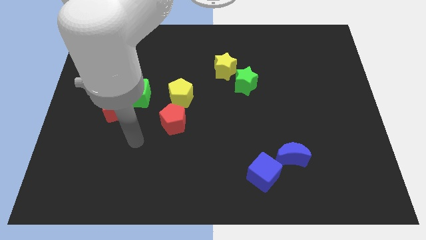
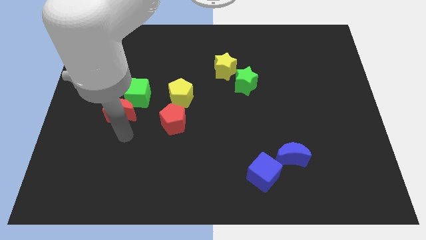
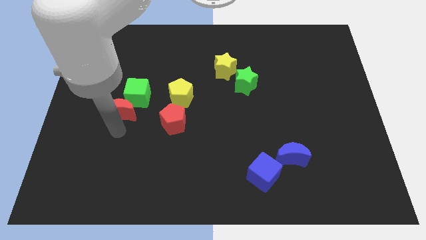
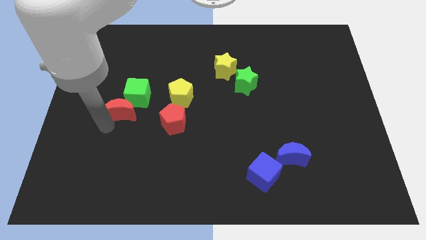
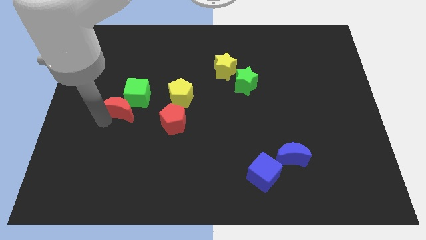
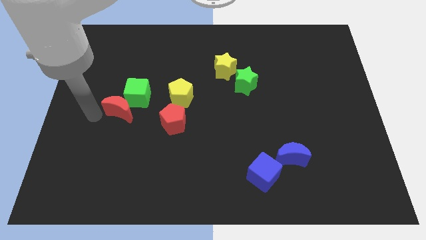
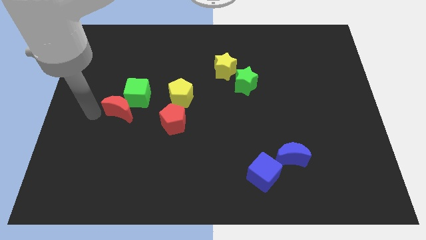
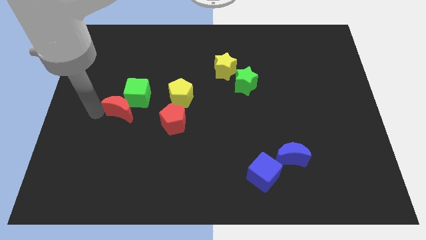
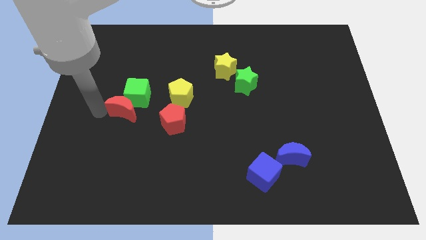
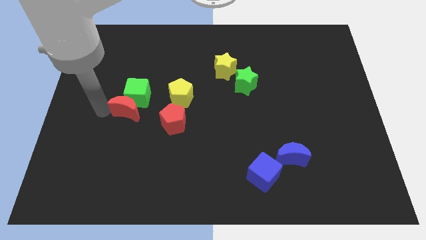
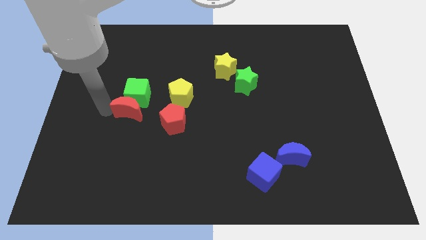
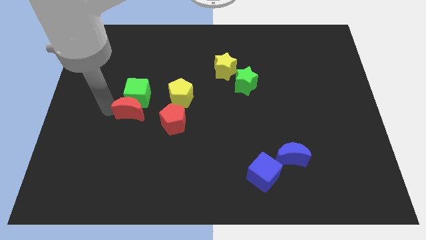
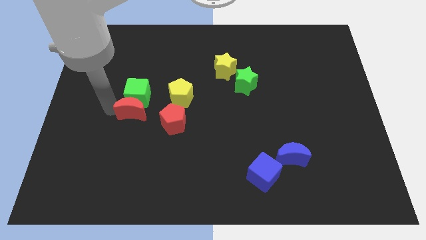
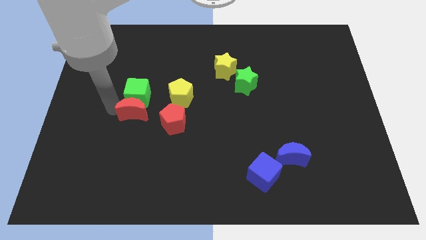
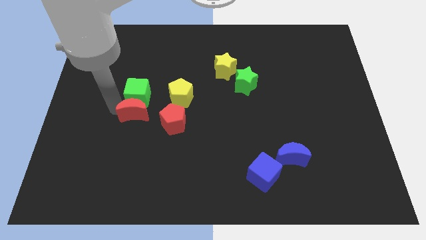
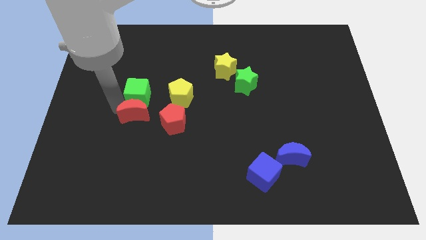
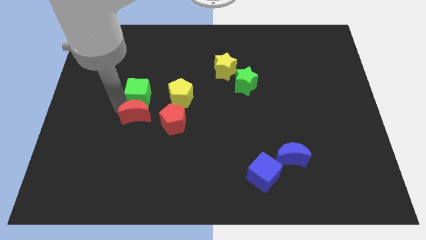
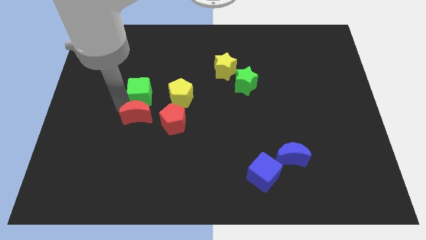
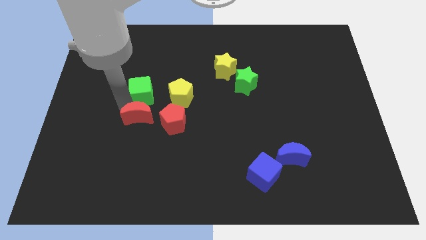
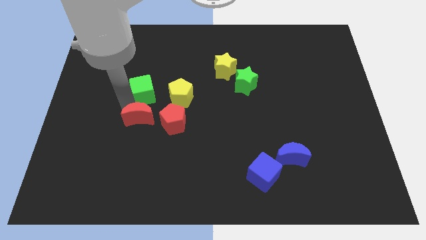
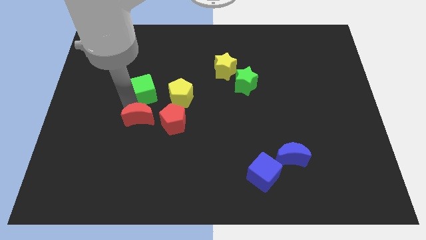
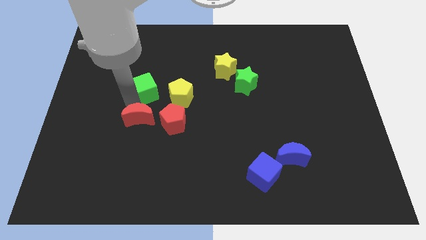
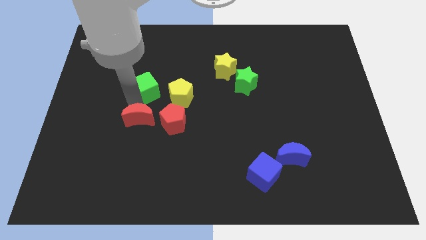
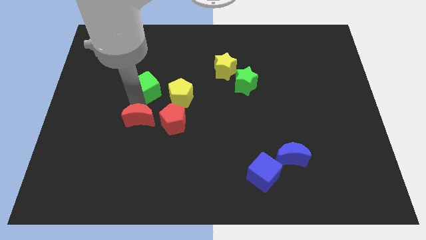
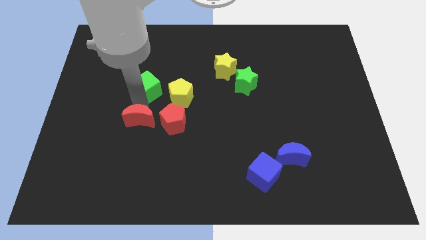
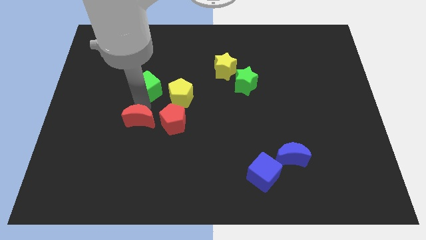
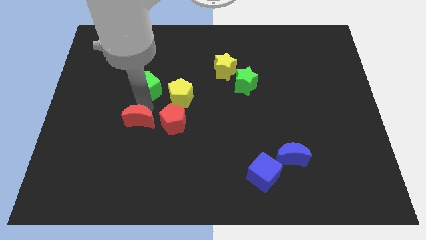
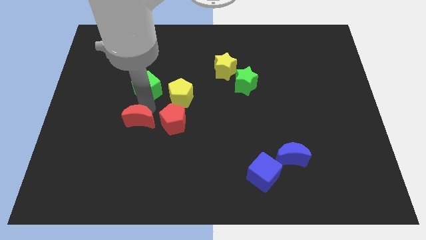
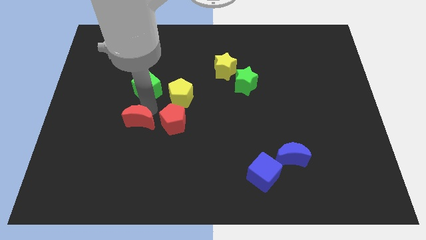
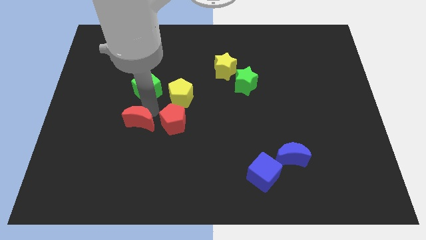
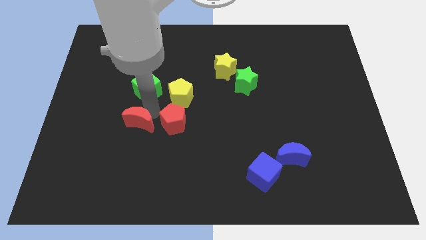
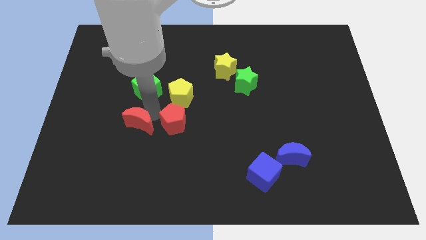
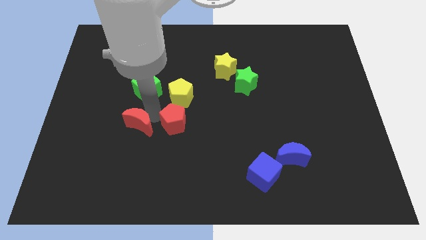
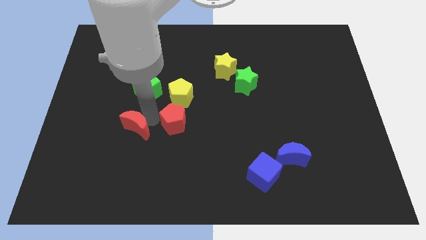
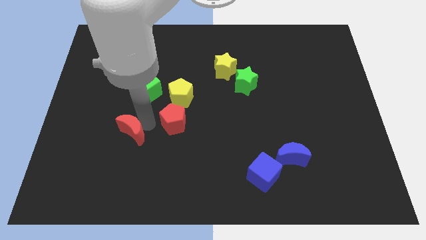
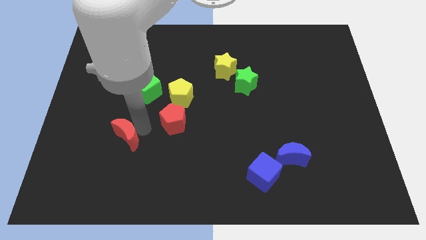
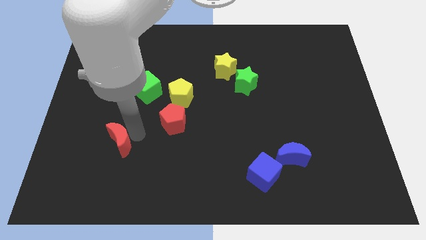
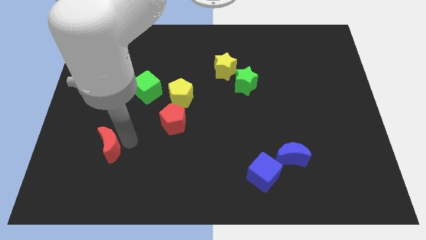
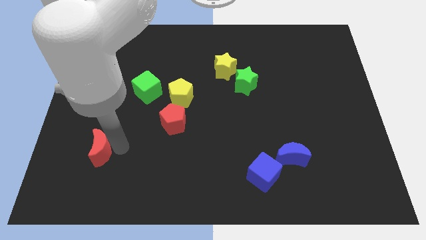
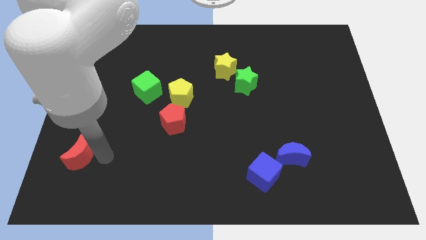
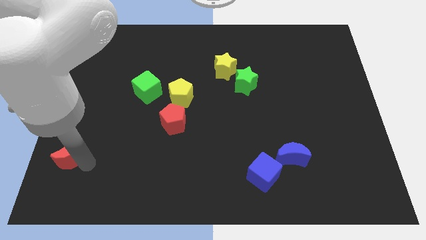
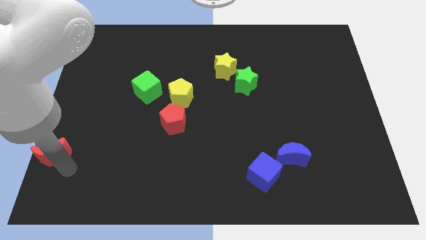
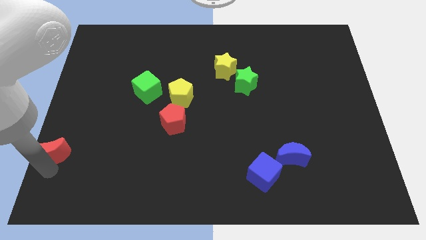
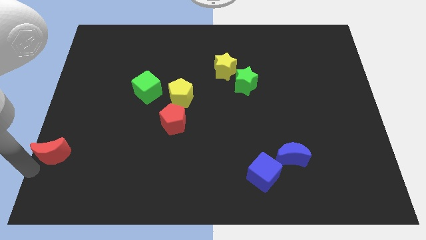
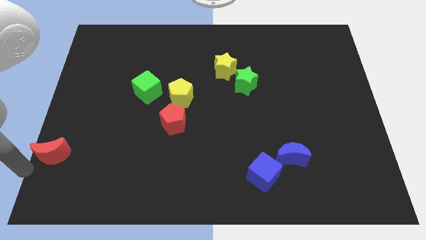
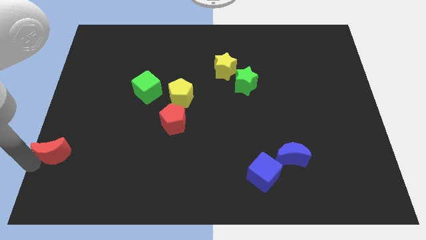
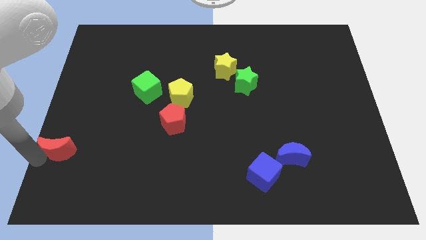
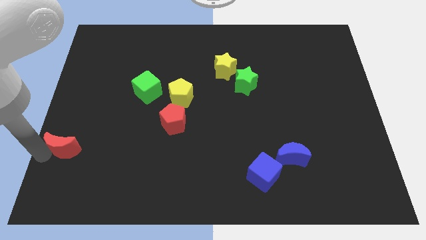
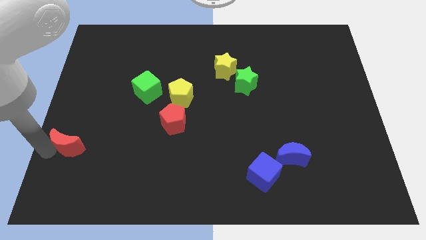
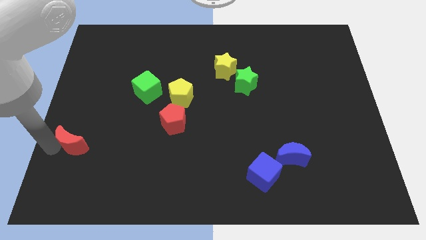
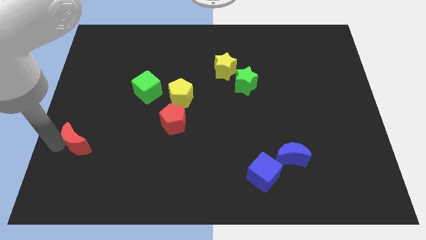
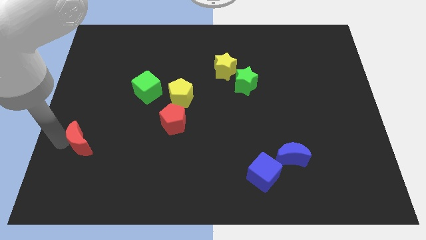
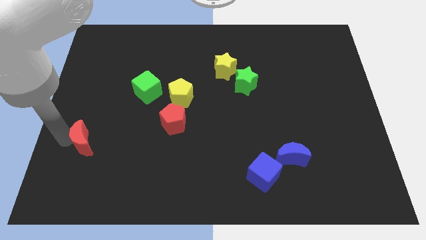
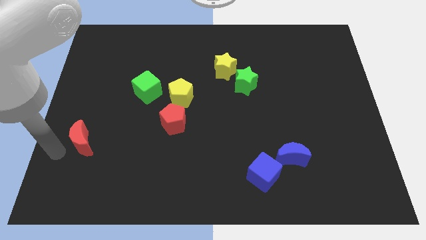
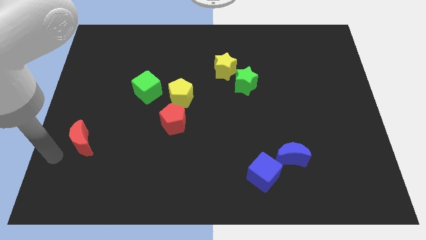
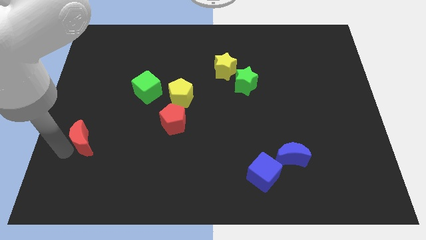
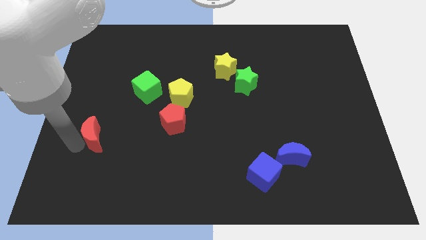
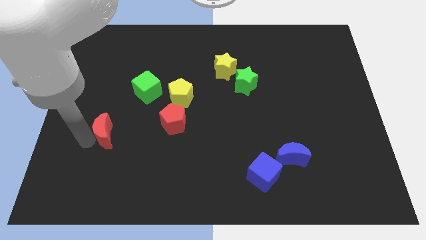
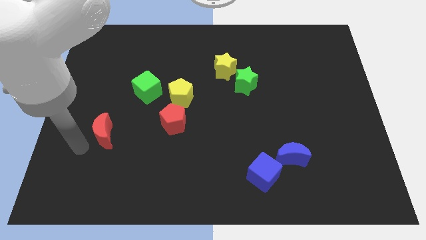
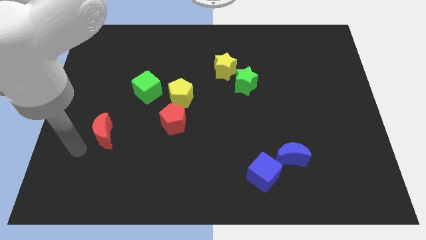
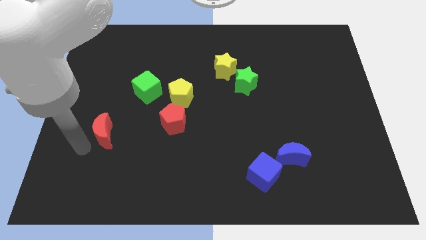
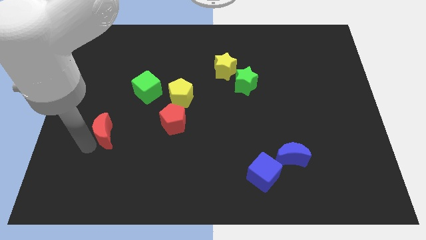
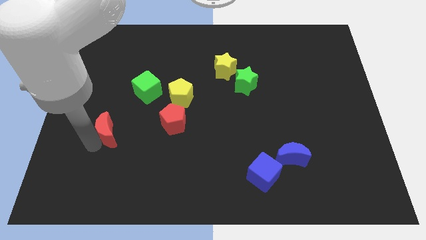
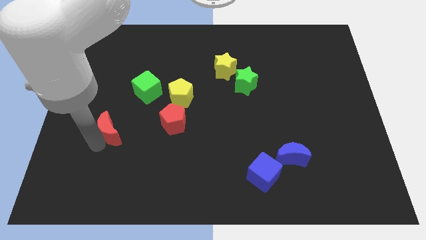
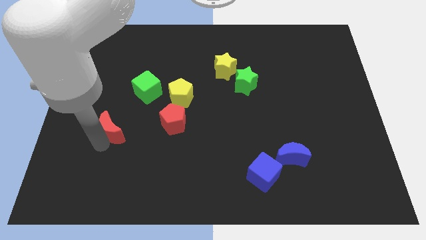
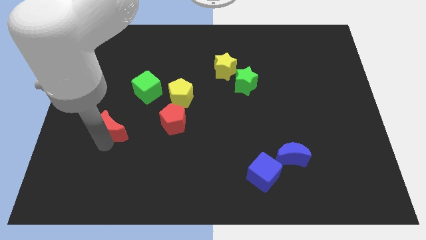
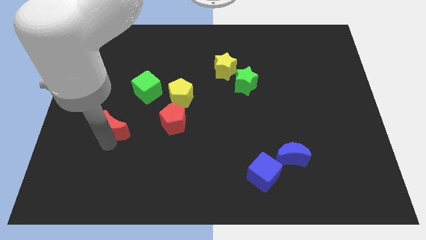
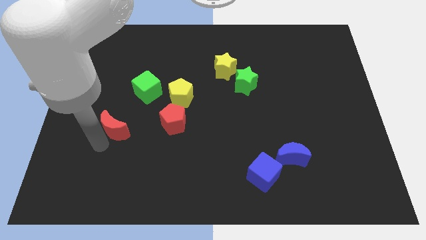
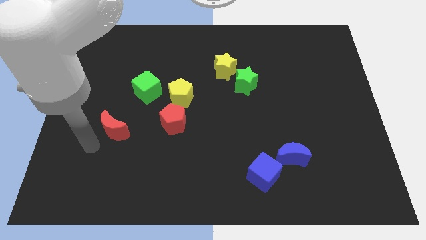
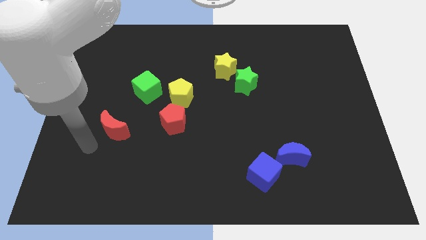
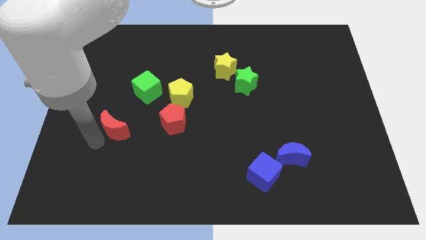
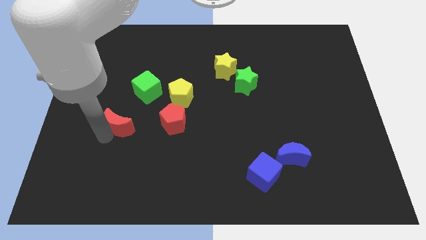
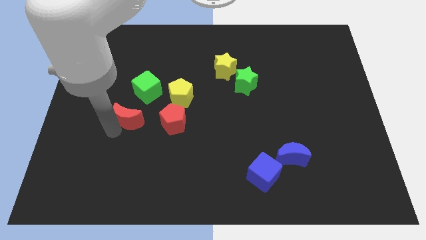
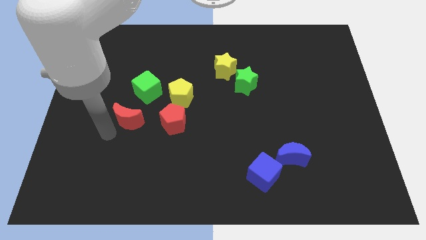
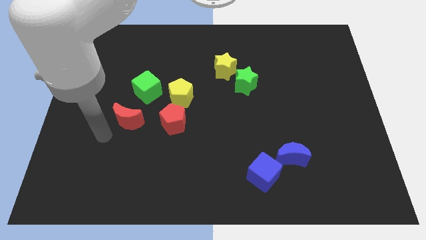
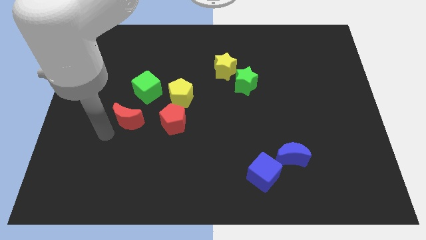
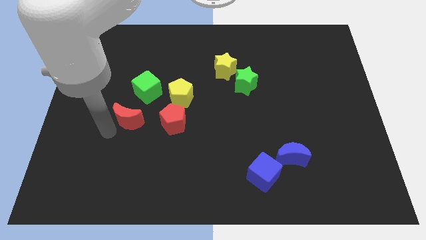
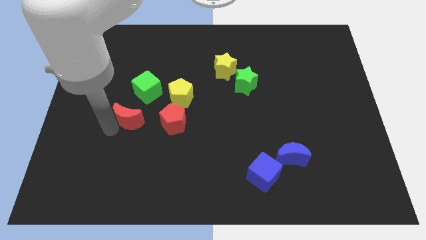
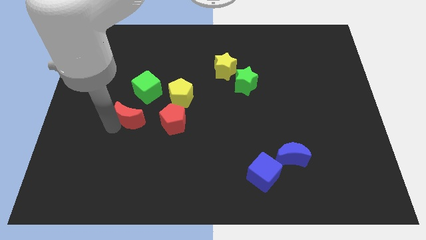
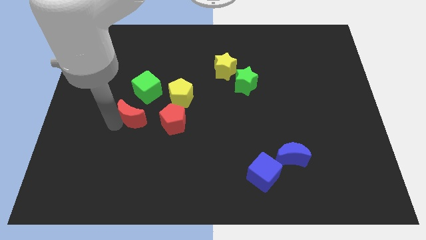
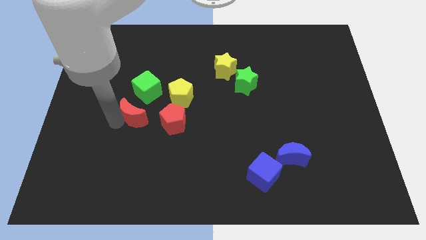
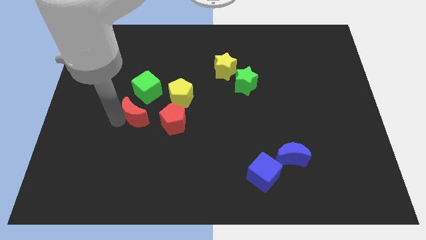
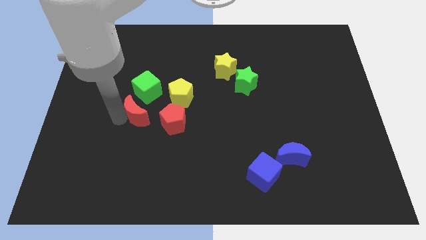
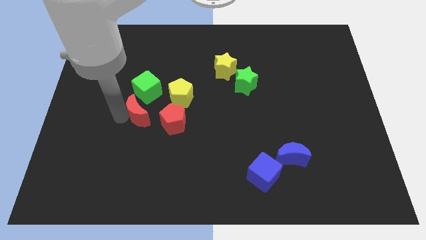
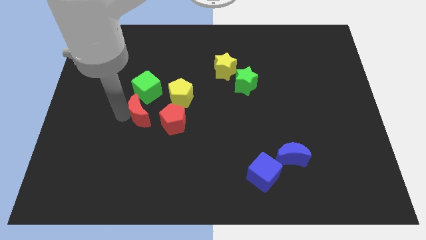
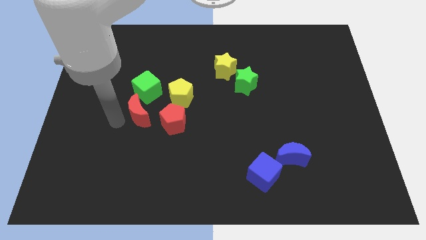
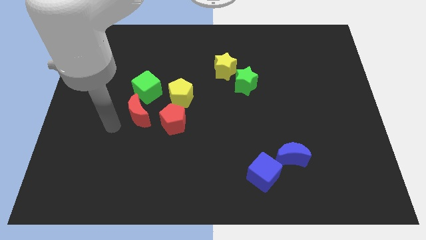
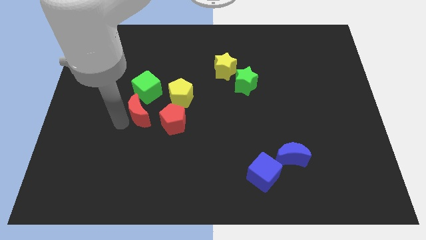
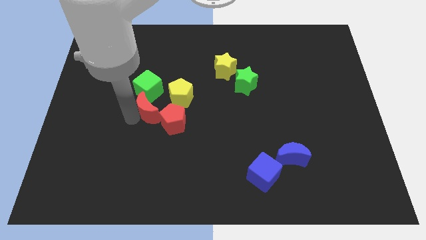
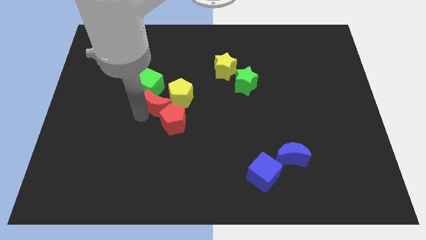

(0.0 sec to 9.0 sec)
slide the red moon close to the yellow pentagon
